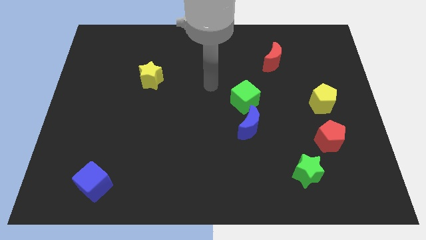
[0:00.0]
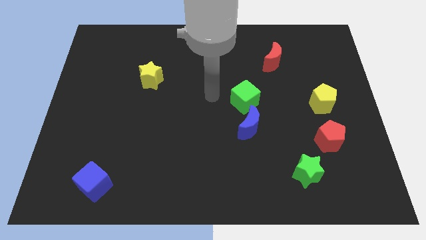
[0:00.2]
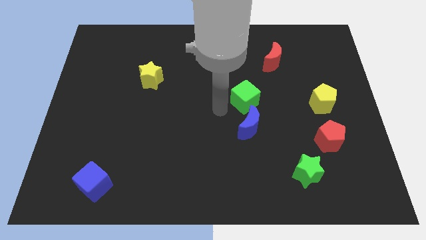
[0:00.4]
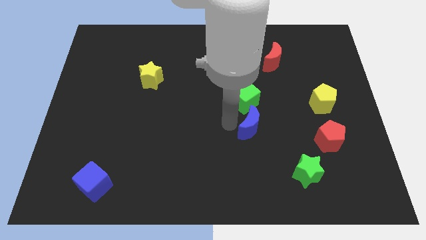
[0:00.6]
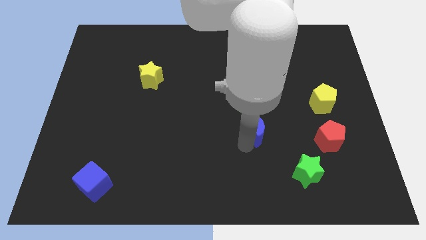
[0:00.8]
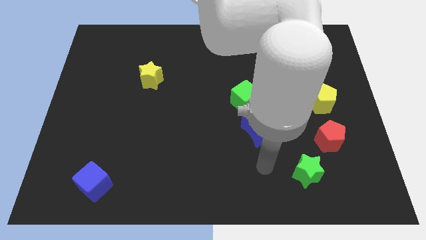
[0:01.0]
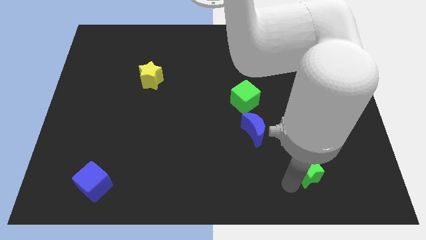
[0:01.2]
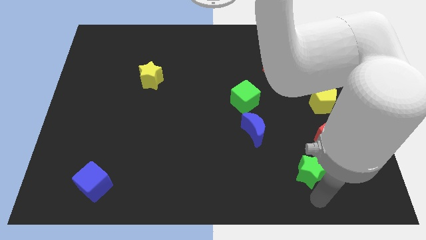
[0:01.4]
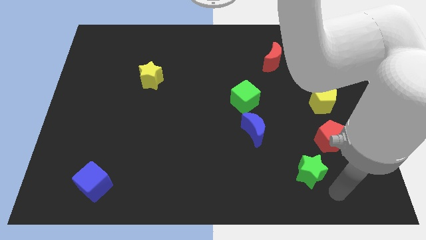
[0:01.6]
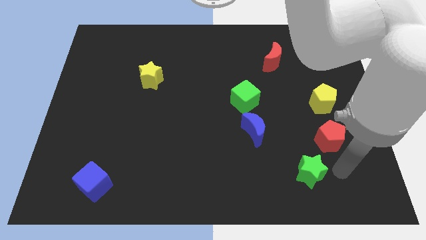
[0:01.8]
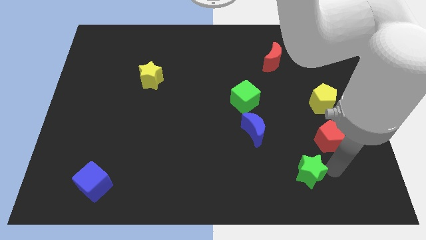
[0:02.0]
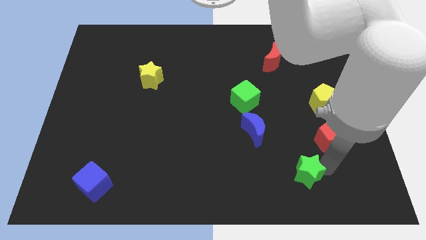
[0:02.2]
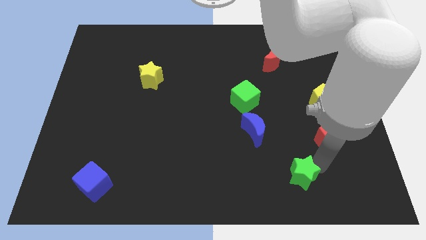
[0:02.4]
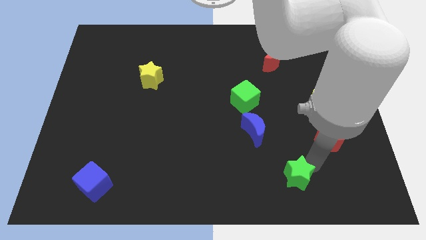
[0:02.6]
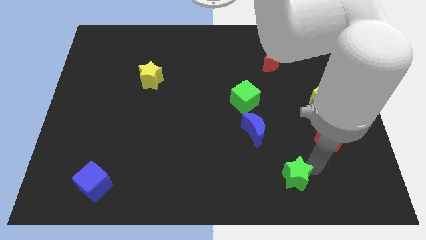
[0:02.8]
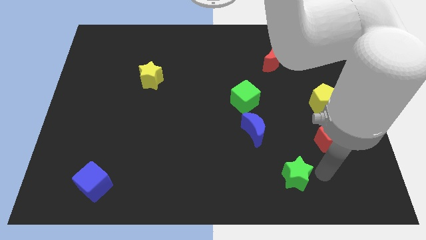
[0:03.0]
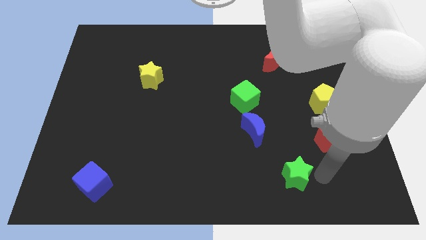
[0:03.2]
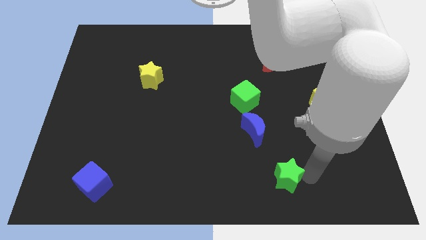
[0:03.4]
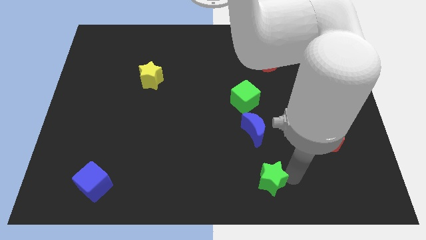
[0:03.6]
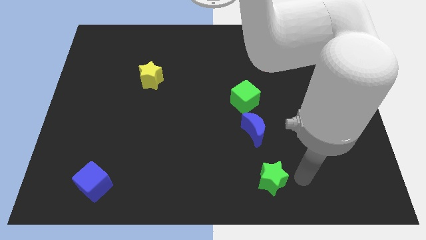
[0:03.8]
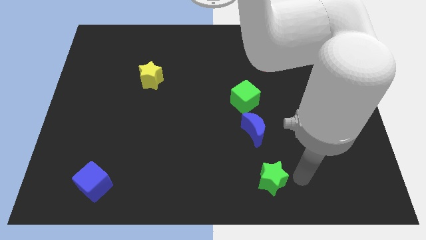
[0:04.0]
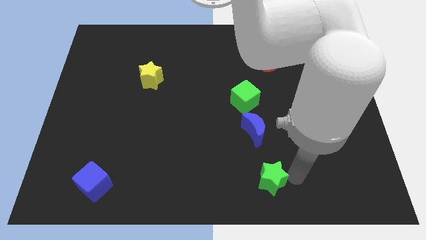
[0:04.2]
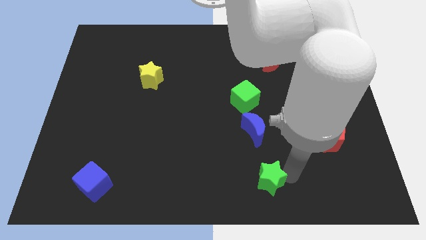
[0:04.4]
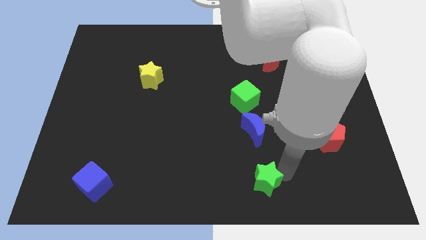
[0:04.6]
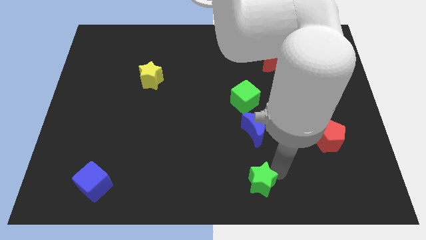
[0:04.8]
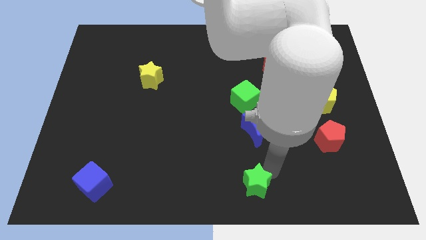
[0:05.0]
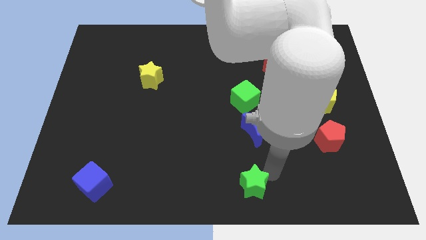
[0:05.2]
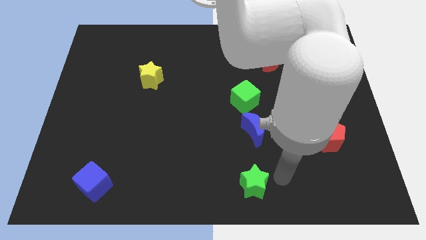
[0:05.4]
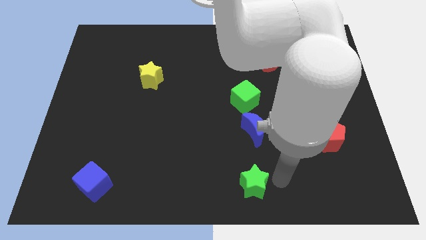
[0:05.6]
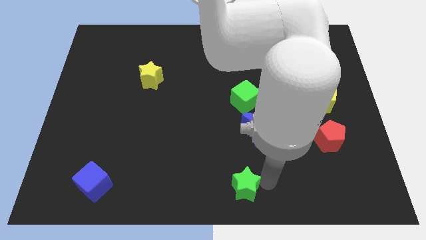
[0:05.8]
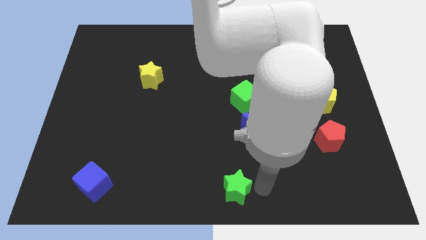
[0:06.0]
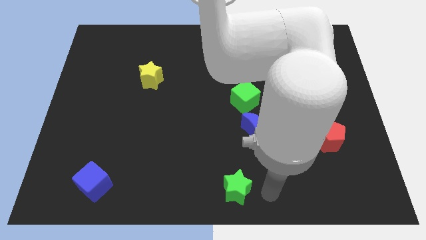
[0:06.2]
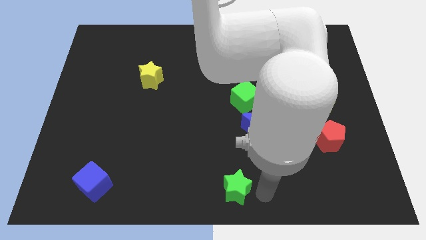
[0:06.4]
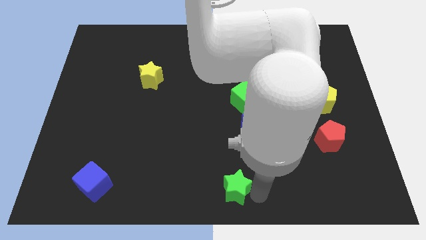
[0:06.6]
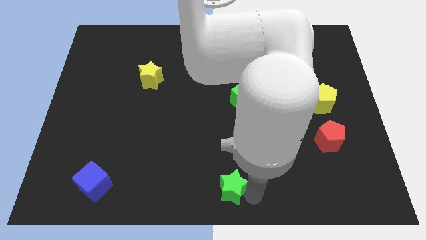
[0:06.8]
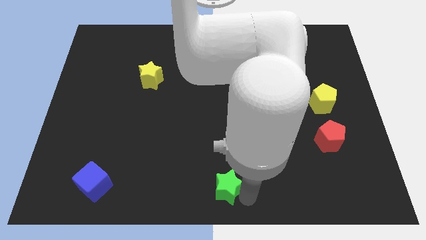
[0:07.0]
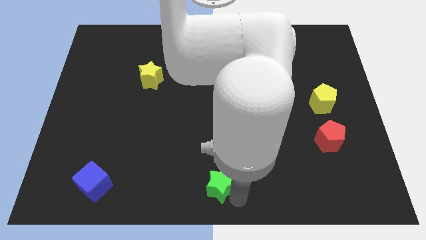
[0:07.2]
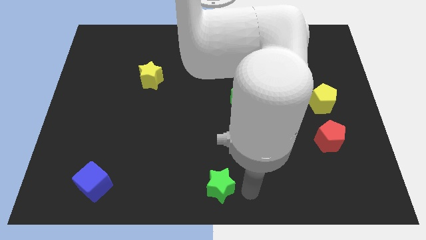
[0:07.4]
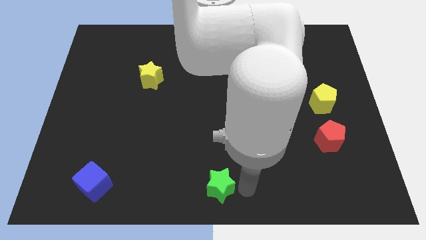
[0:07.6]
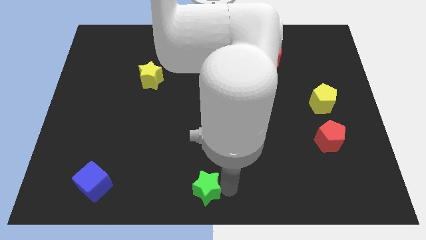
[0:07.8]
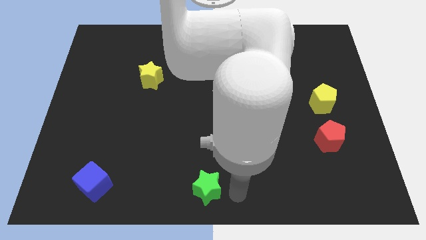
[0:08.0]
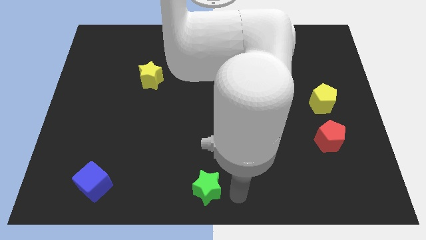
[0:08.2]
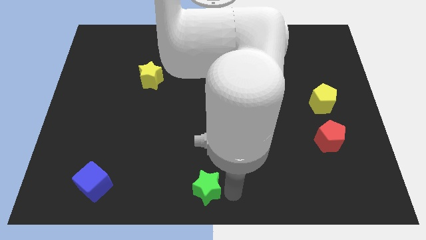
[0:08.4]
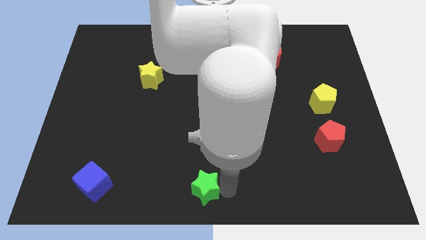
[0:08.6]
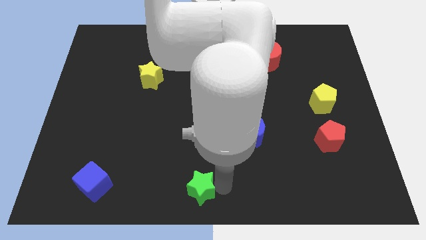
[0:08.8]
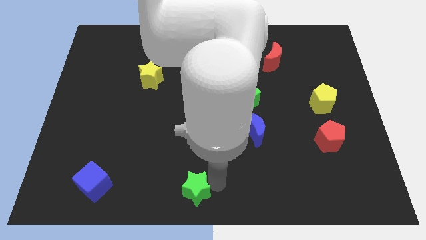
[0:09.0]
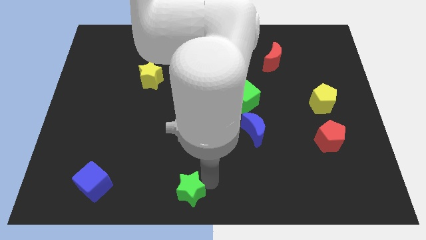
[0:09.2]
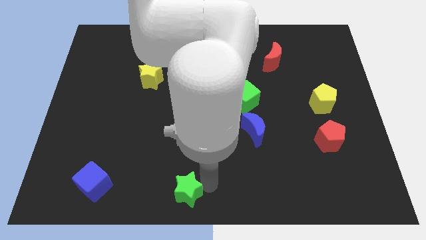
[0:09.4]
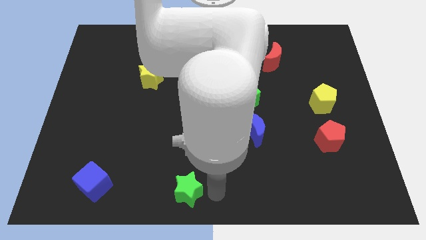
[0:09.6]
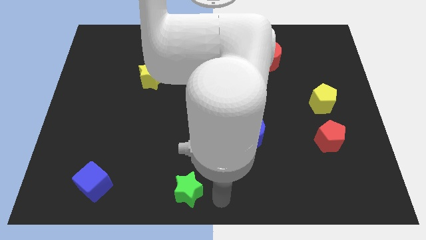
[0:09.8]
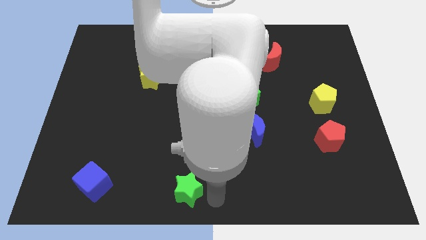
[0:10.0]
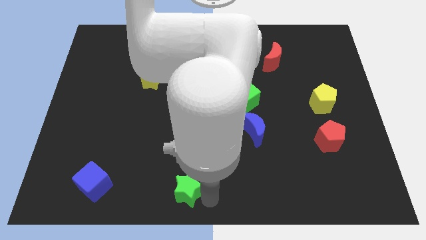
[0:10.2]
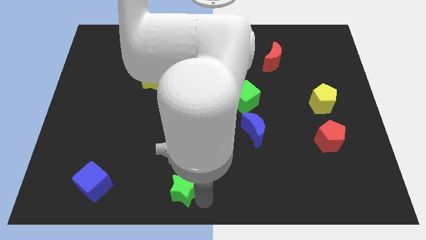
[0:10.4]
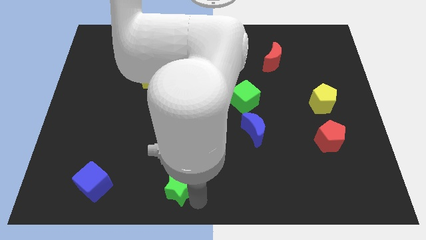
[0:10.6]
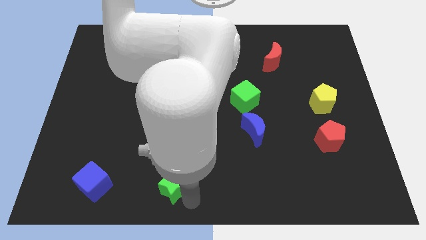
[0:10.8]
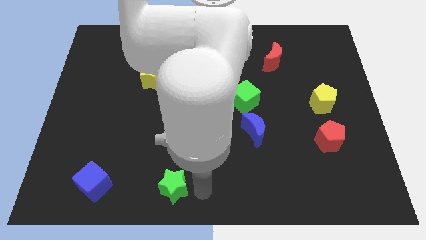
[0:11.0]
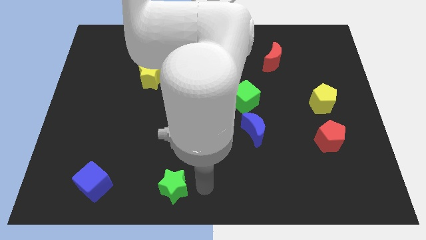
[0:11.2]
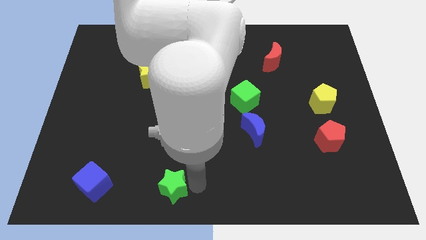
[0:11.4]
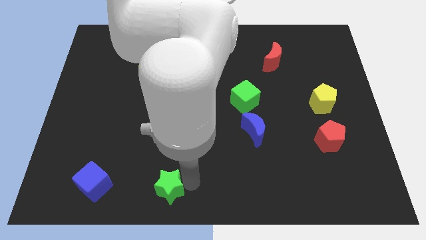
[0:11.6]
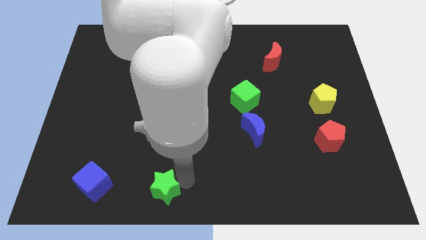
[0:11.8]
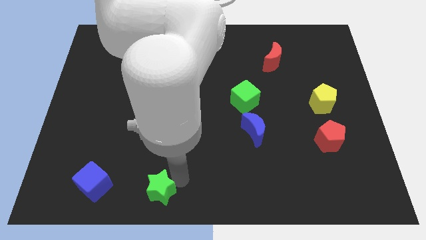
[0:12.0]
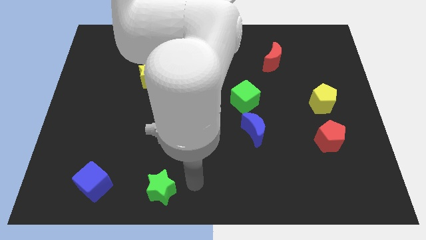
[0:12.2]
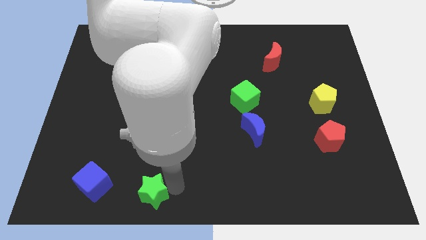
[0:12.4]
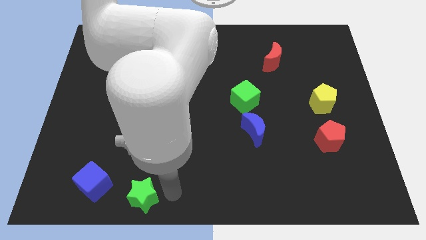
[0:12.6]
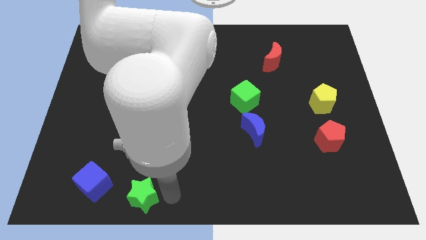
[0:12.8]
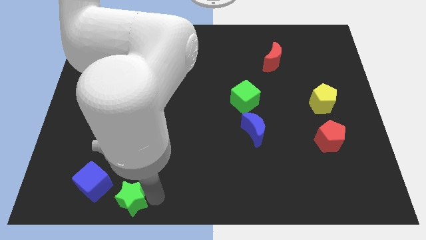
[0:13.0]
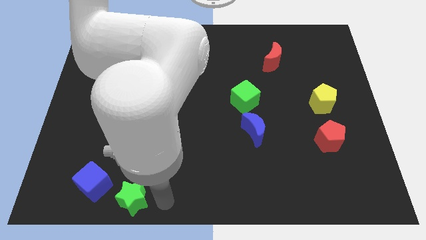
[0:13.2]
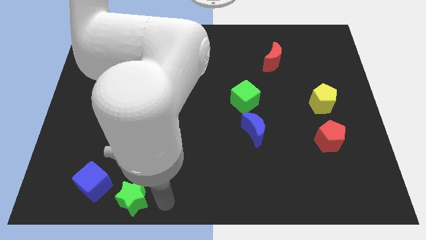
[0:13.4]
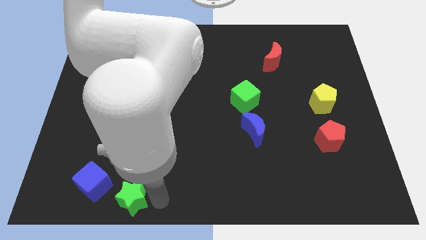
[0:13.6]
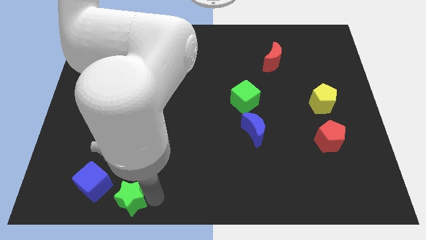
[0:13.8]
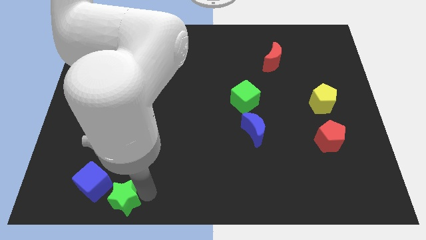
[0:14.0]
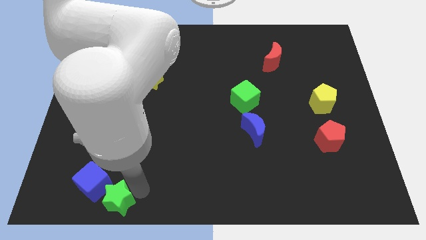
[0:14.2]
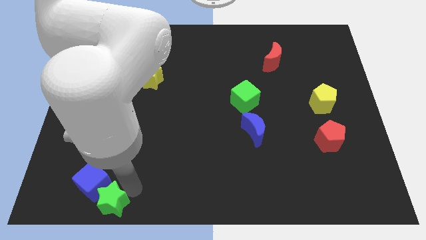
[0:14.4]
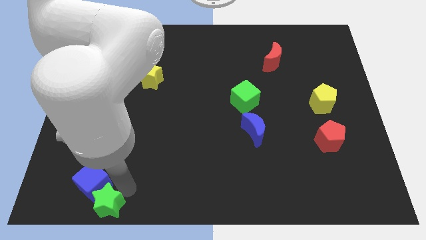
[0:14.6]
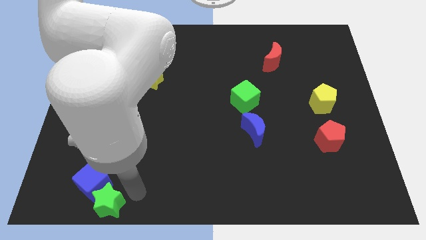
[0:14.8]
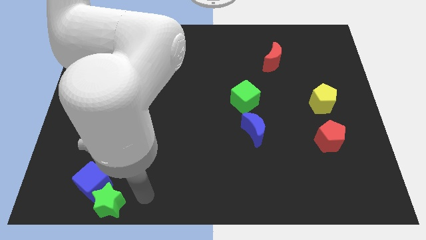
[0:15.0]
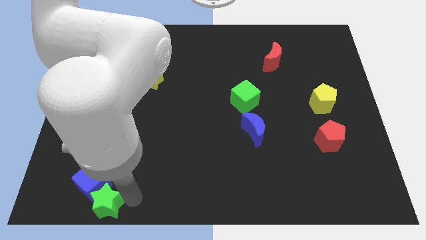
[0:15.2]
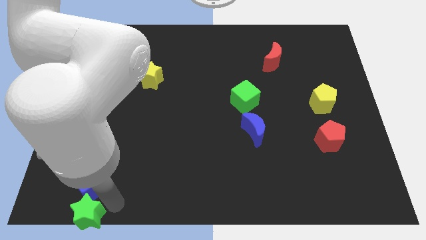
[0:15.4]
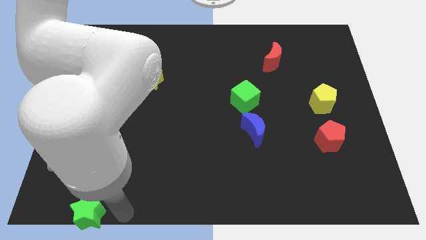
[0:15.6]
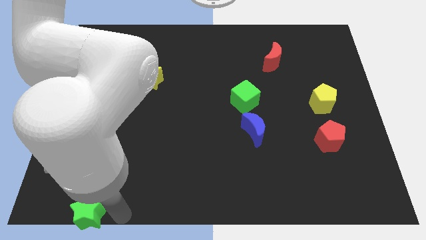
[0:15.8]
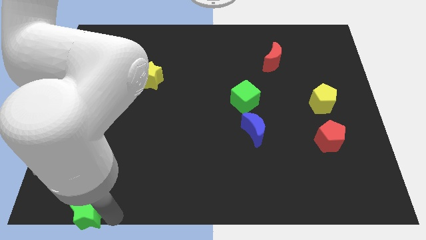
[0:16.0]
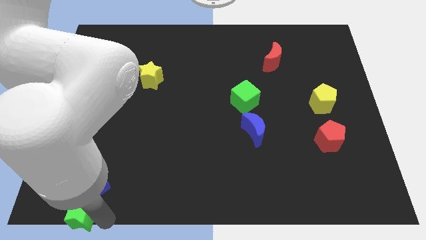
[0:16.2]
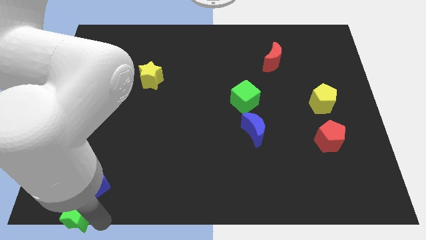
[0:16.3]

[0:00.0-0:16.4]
push the green star to the lower left corner
